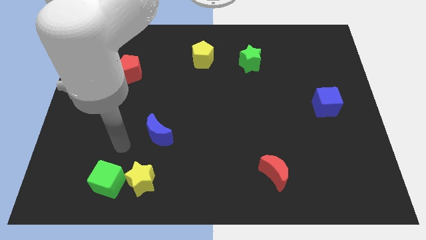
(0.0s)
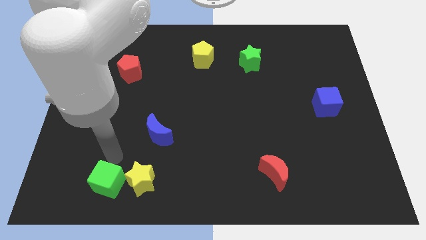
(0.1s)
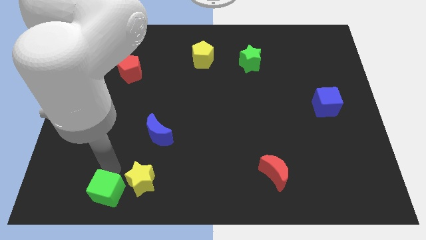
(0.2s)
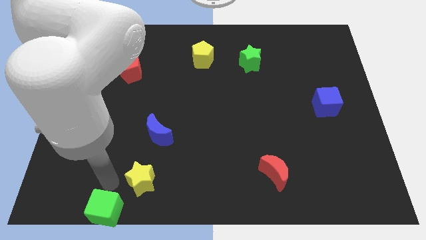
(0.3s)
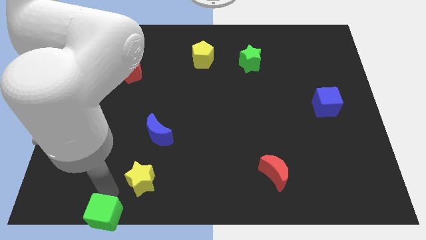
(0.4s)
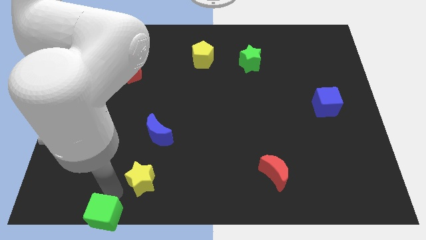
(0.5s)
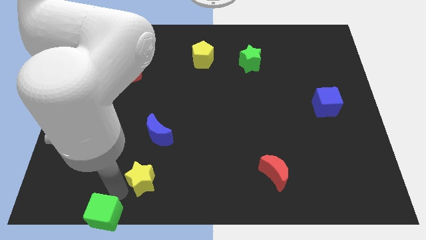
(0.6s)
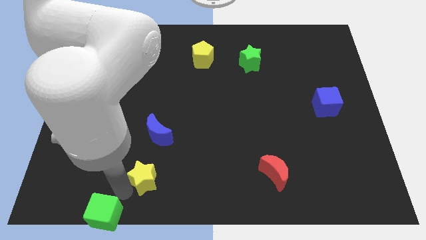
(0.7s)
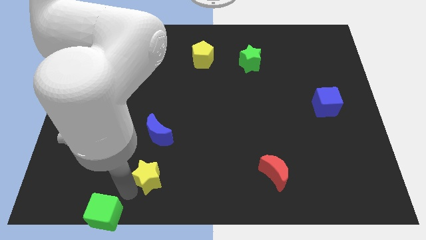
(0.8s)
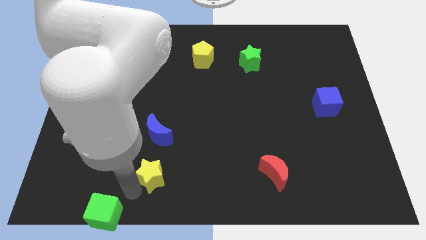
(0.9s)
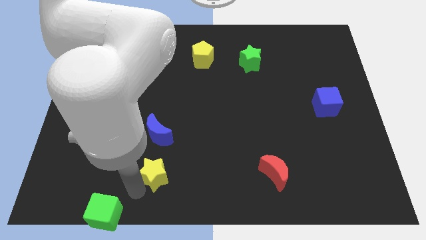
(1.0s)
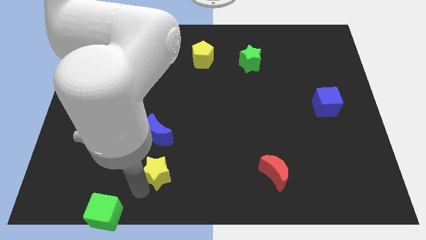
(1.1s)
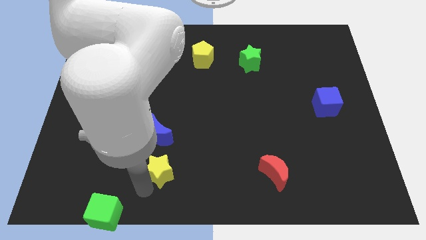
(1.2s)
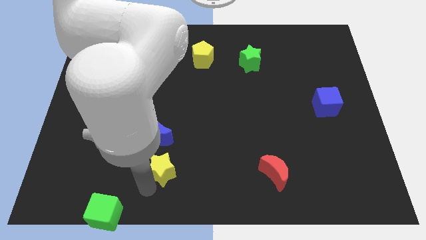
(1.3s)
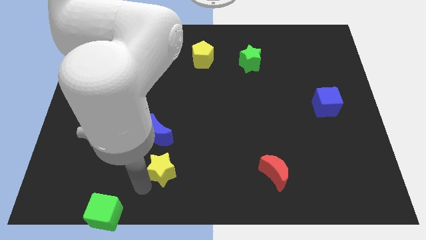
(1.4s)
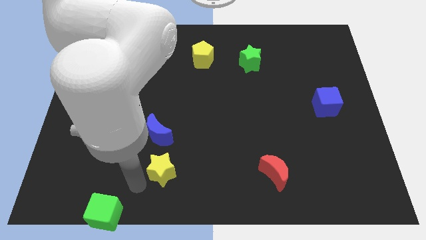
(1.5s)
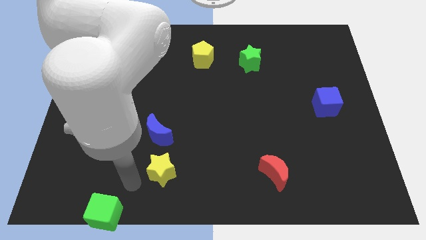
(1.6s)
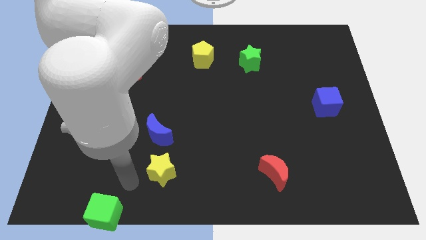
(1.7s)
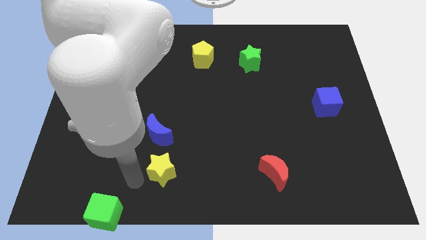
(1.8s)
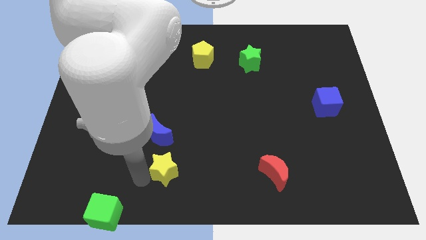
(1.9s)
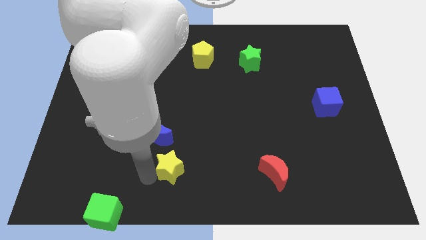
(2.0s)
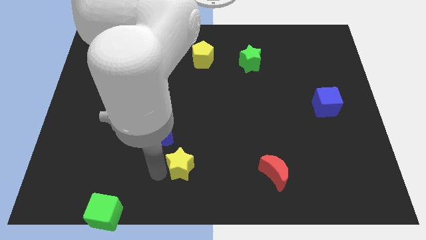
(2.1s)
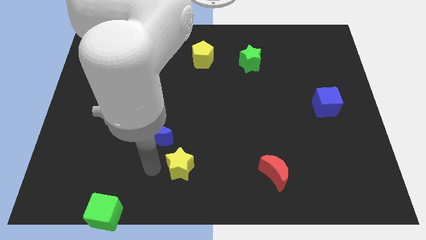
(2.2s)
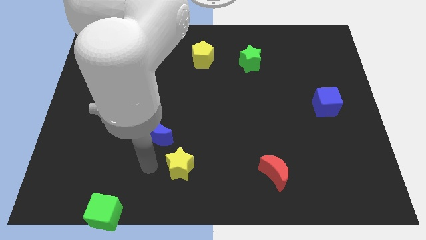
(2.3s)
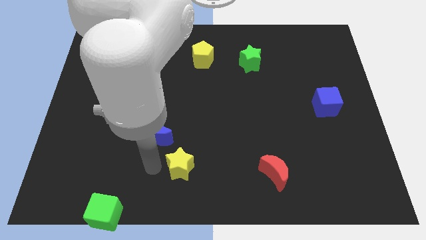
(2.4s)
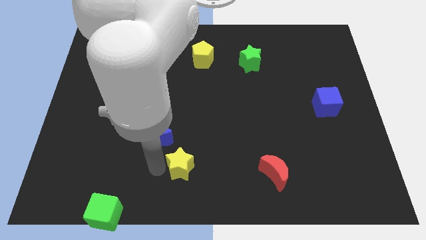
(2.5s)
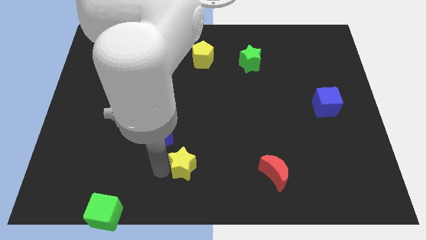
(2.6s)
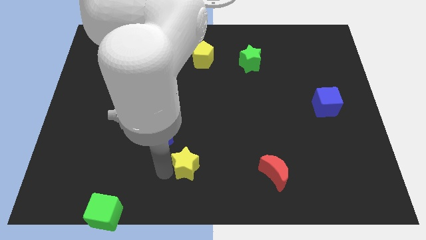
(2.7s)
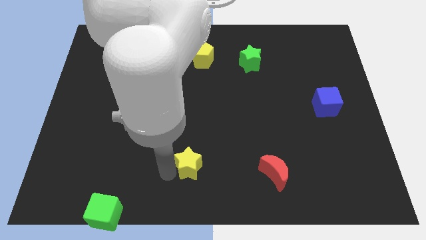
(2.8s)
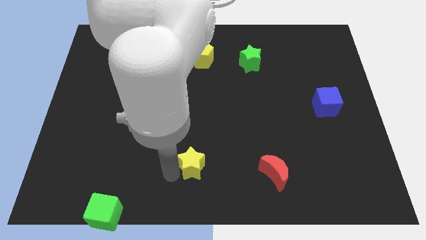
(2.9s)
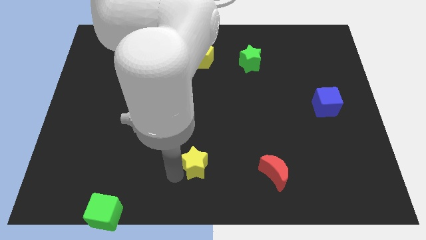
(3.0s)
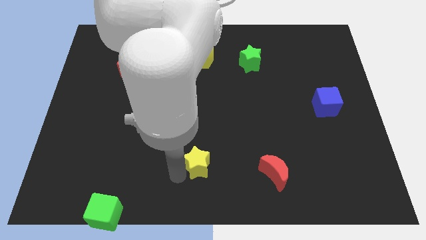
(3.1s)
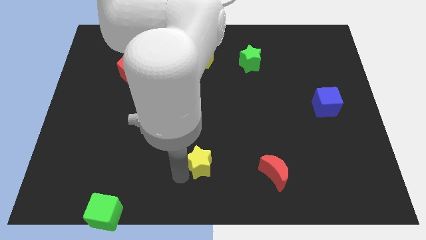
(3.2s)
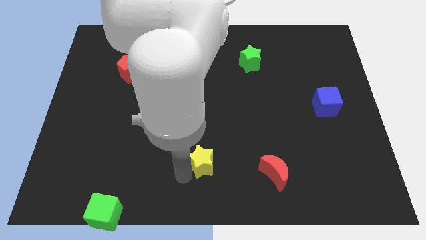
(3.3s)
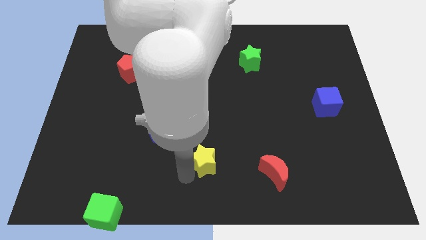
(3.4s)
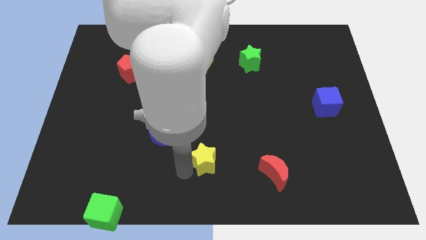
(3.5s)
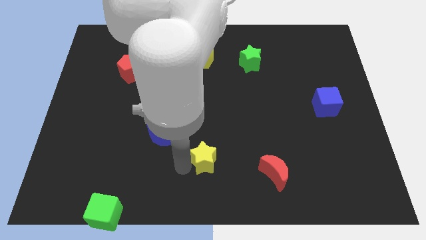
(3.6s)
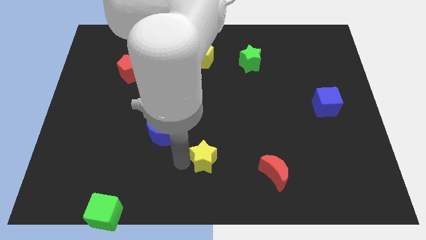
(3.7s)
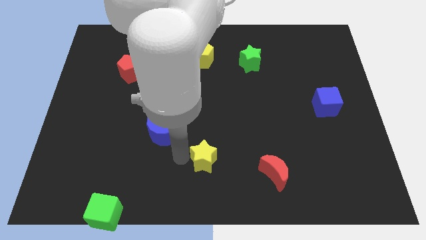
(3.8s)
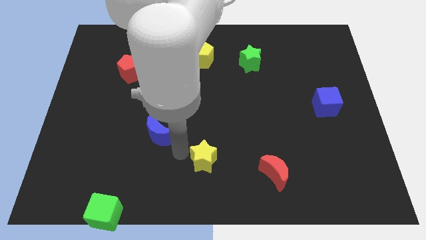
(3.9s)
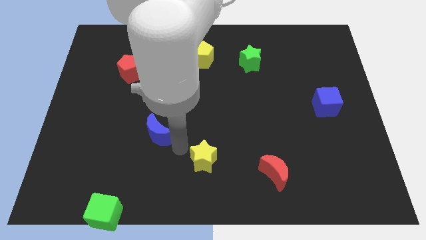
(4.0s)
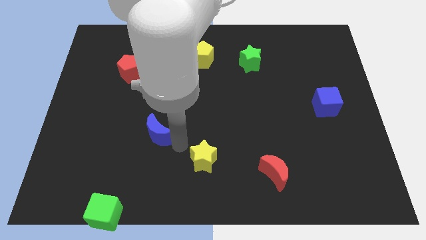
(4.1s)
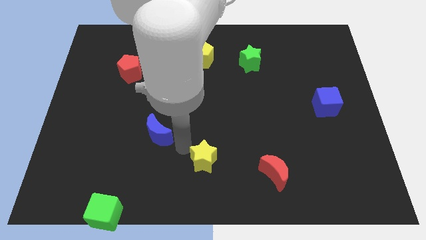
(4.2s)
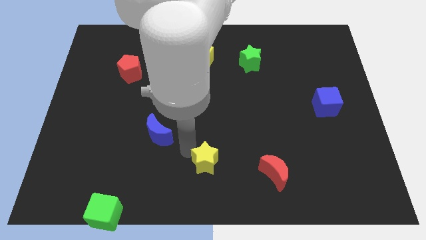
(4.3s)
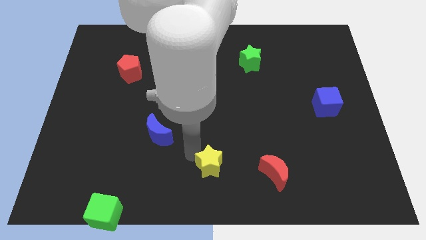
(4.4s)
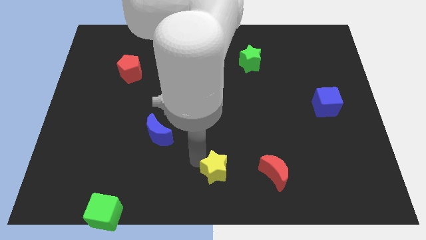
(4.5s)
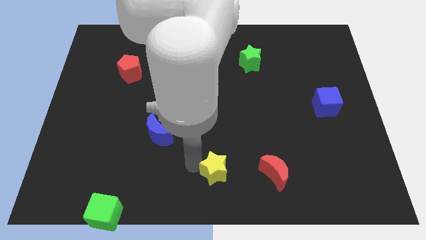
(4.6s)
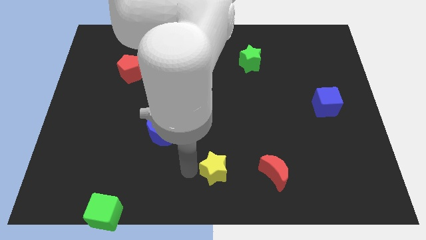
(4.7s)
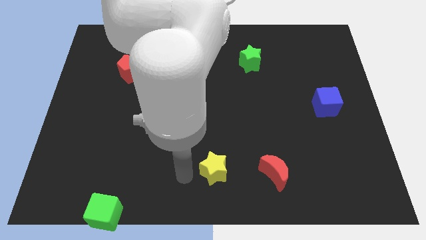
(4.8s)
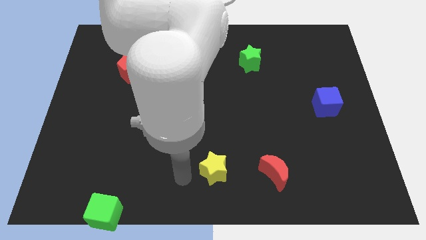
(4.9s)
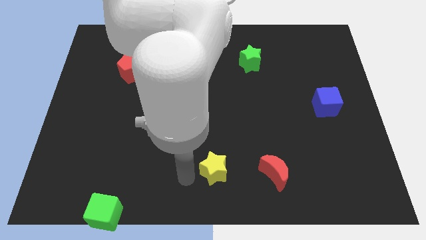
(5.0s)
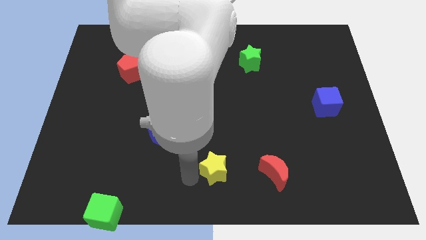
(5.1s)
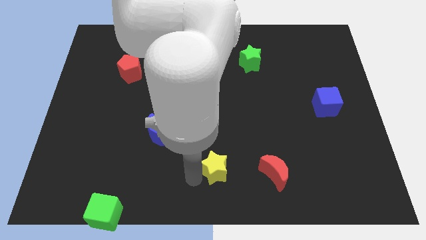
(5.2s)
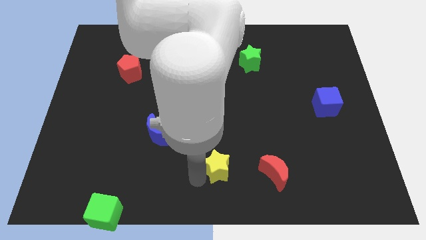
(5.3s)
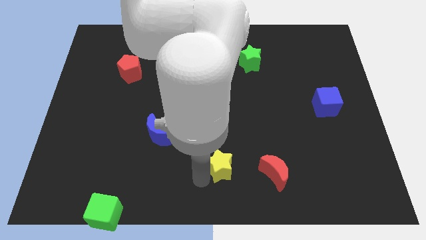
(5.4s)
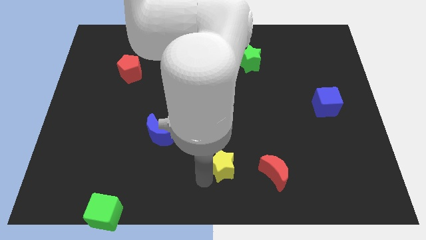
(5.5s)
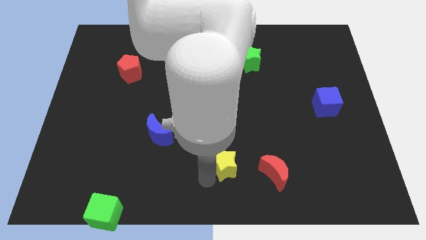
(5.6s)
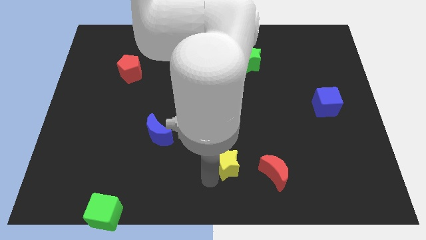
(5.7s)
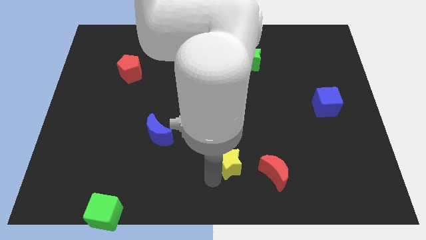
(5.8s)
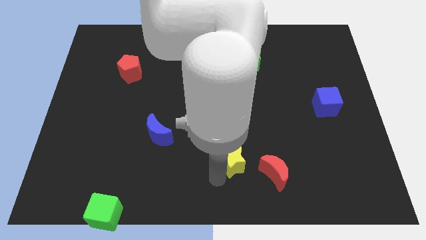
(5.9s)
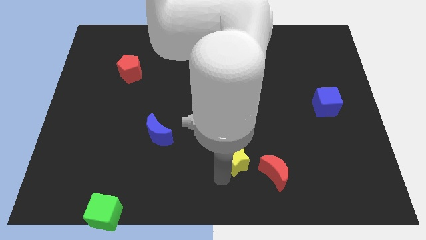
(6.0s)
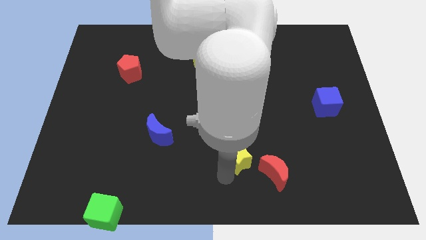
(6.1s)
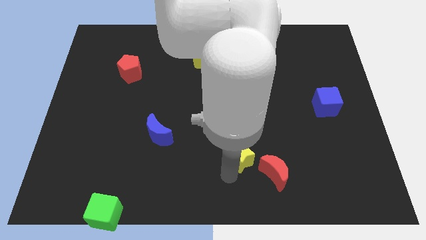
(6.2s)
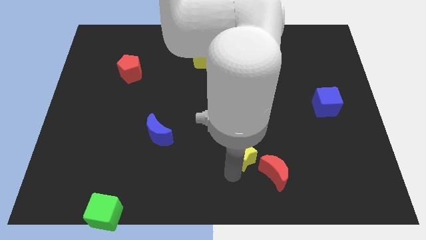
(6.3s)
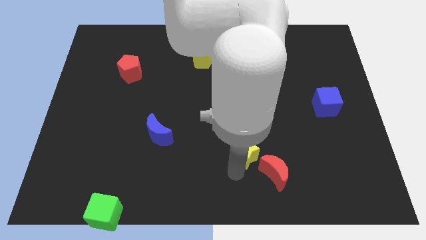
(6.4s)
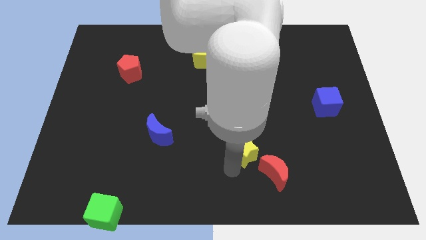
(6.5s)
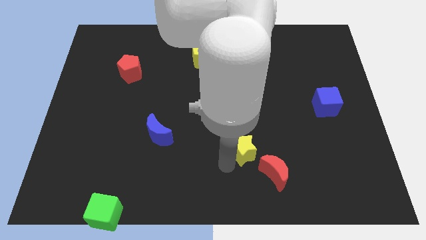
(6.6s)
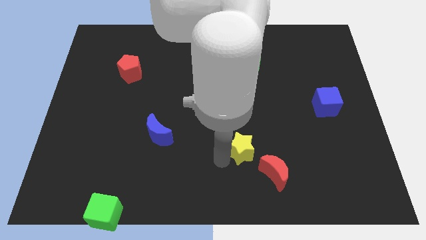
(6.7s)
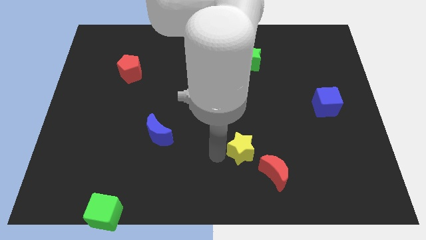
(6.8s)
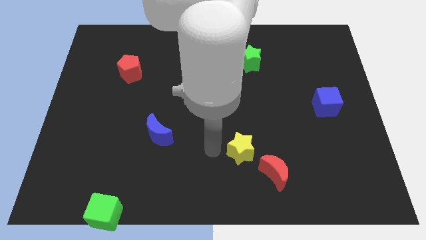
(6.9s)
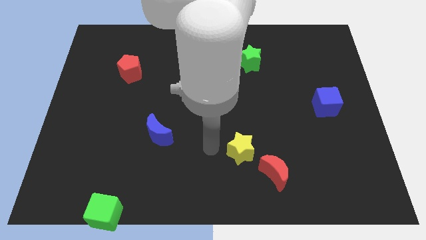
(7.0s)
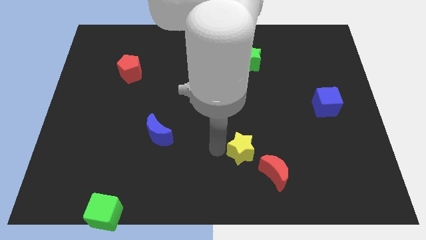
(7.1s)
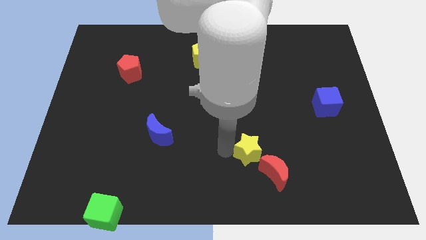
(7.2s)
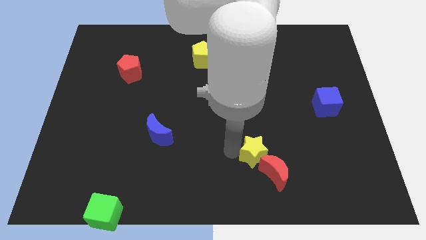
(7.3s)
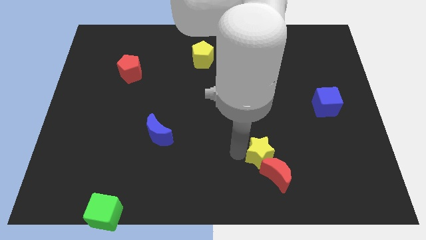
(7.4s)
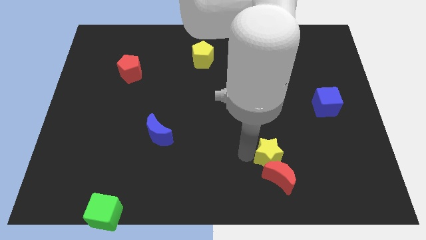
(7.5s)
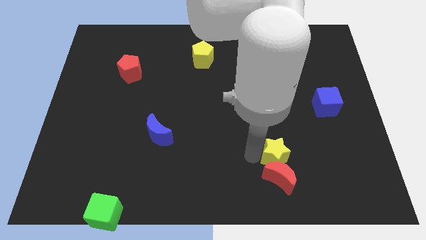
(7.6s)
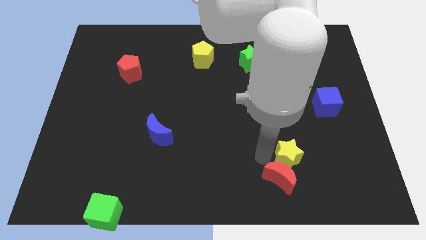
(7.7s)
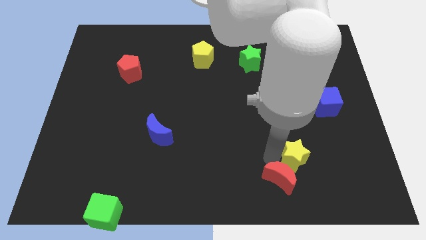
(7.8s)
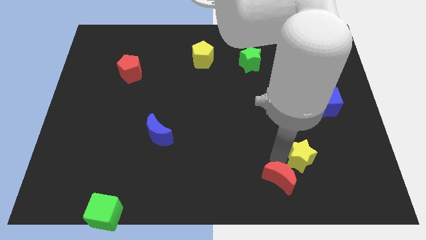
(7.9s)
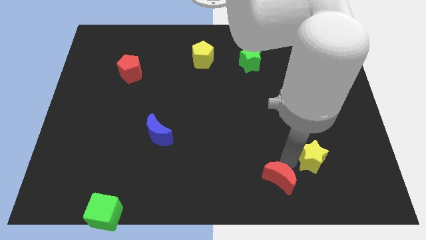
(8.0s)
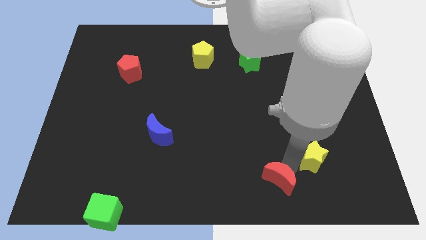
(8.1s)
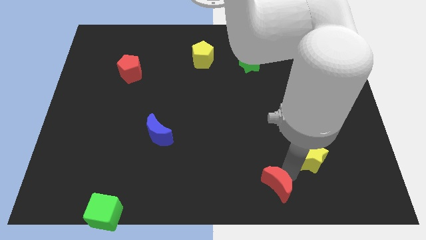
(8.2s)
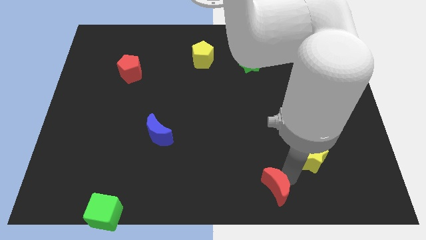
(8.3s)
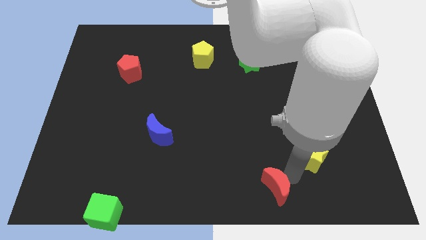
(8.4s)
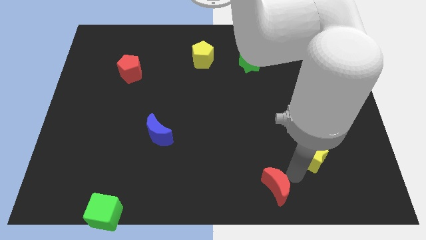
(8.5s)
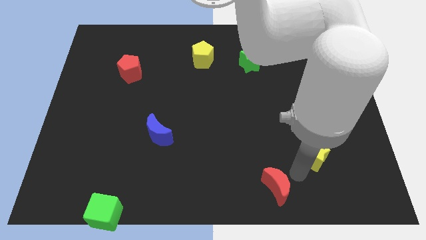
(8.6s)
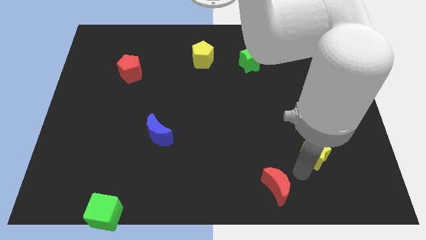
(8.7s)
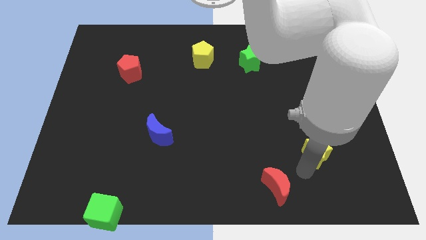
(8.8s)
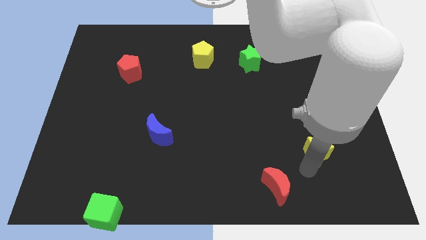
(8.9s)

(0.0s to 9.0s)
move the yellow star below the blue cube
